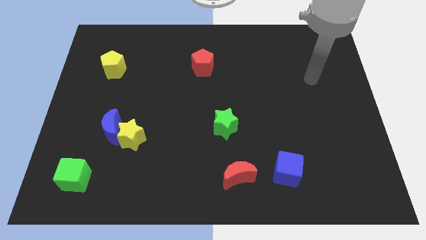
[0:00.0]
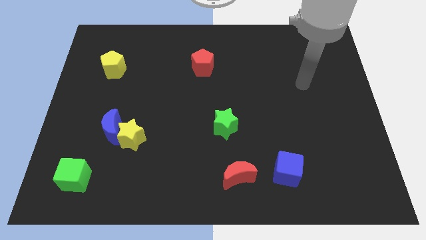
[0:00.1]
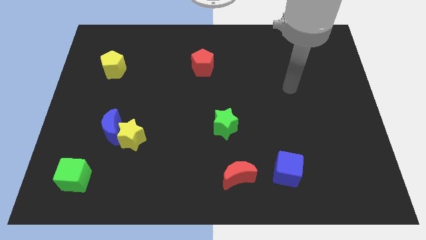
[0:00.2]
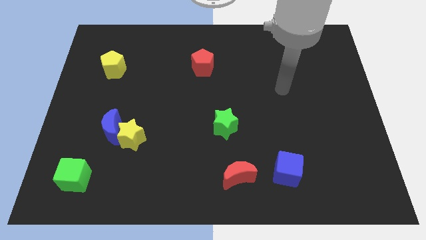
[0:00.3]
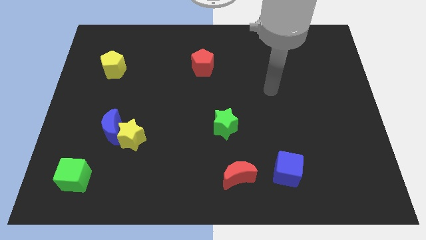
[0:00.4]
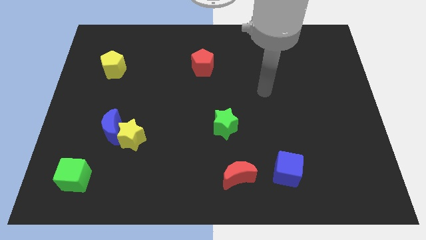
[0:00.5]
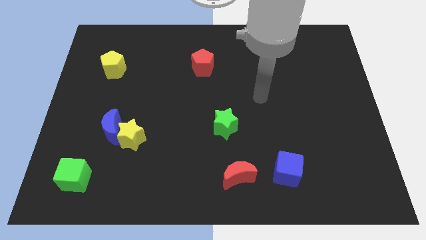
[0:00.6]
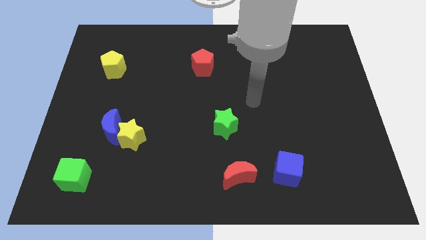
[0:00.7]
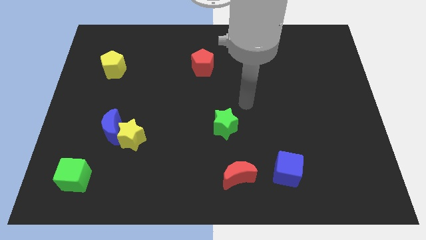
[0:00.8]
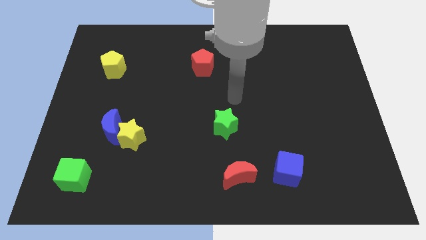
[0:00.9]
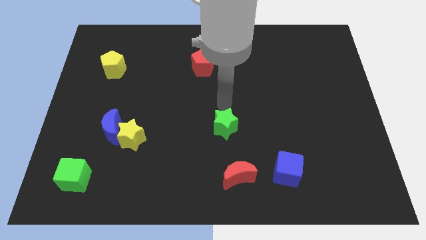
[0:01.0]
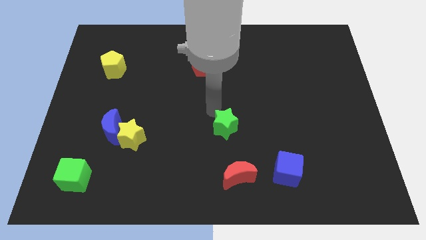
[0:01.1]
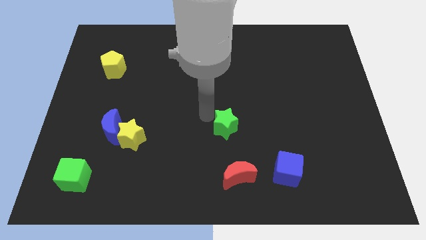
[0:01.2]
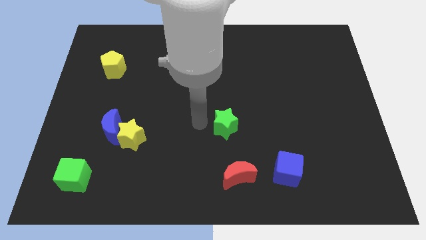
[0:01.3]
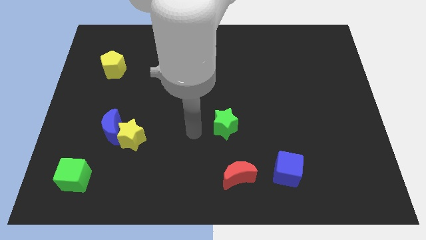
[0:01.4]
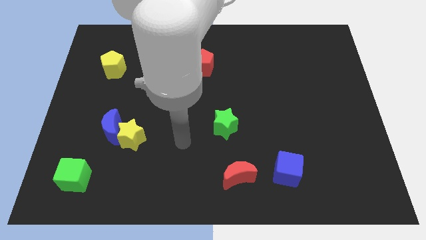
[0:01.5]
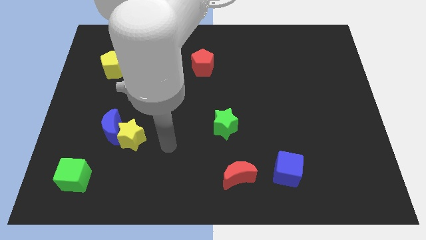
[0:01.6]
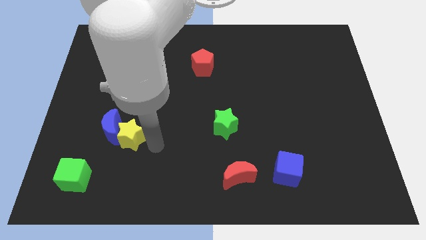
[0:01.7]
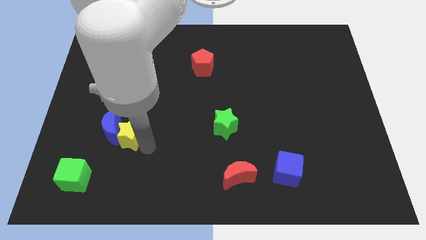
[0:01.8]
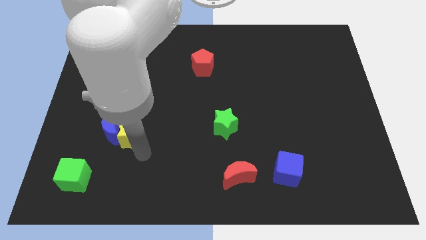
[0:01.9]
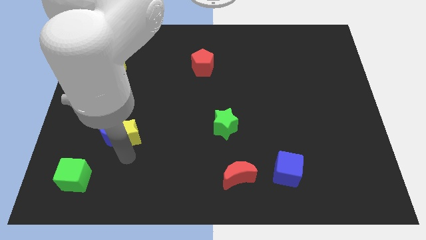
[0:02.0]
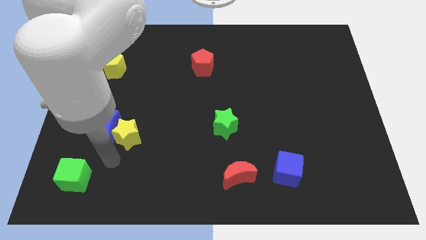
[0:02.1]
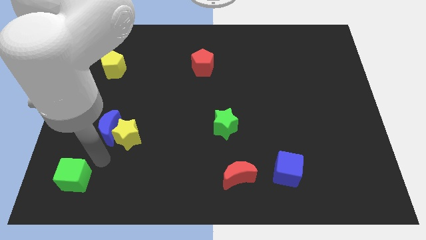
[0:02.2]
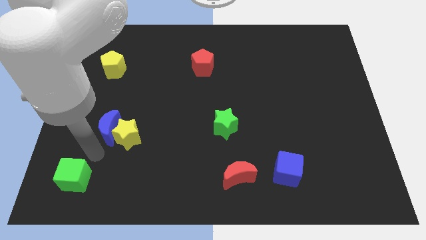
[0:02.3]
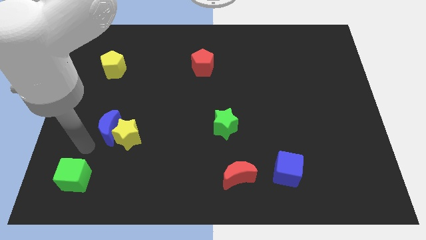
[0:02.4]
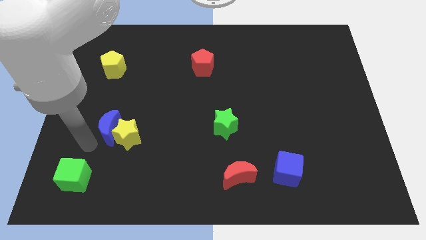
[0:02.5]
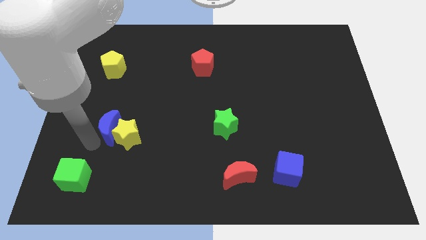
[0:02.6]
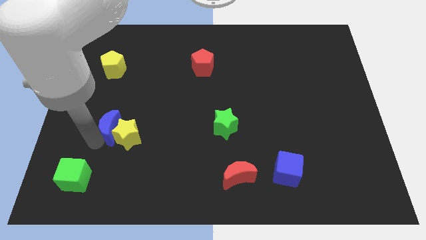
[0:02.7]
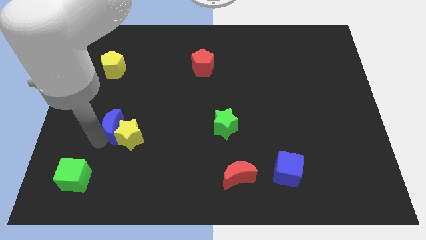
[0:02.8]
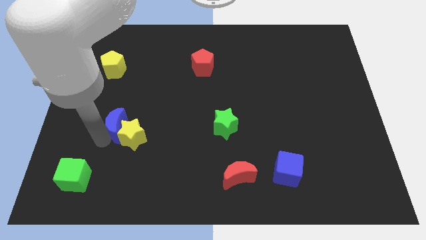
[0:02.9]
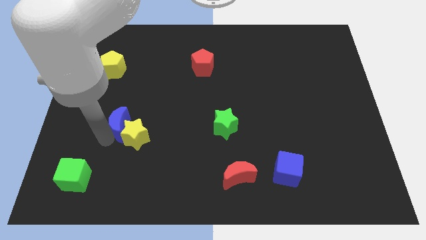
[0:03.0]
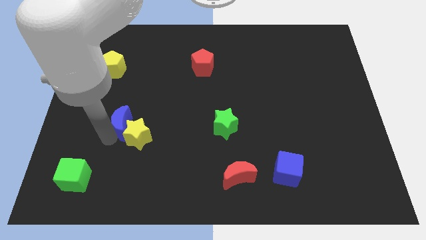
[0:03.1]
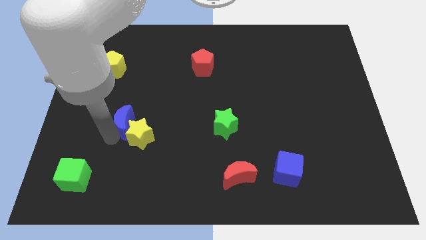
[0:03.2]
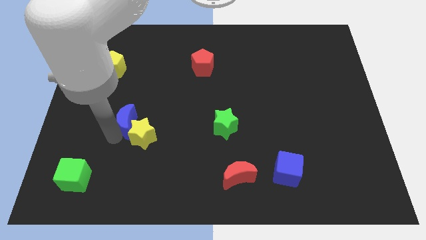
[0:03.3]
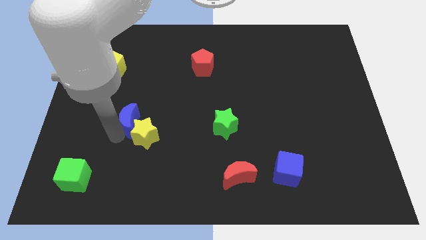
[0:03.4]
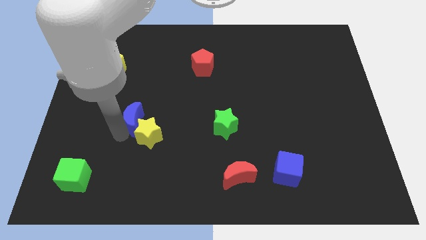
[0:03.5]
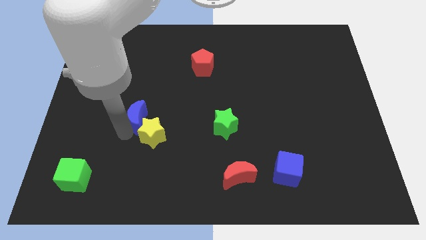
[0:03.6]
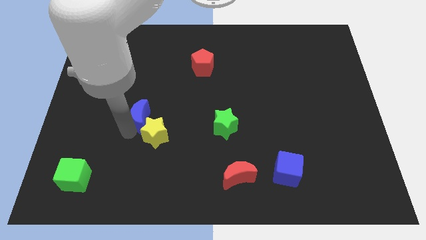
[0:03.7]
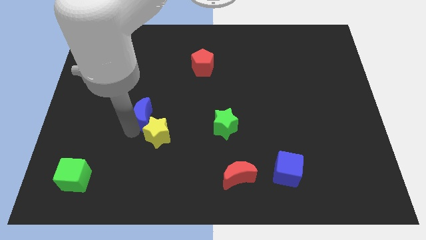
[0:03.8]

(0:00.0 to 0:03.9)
slide the blue moon up and then to the right somewhat

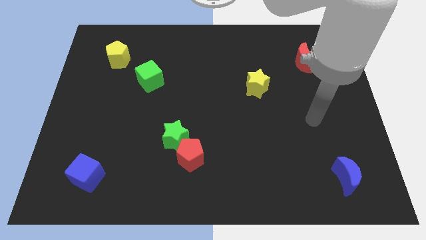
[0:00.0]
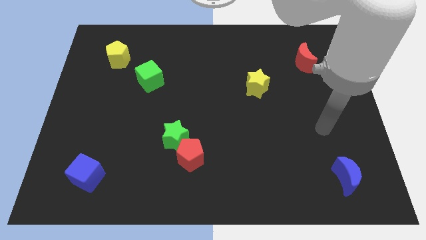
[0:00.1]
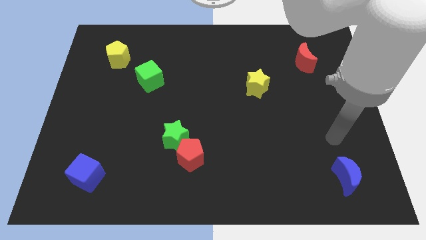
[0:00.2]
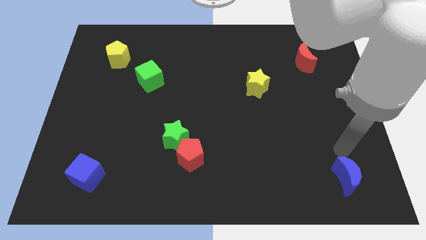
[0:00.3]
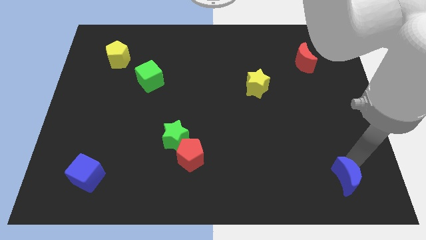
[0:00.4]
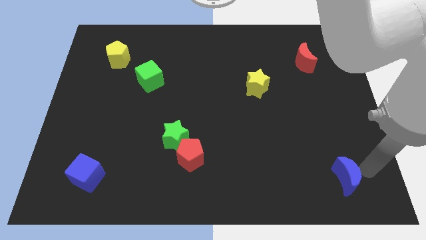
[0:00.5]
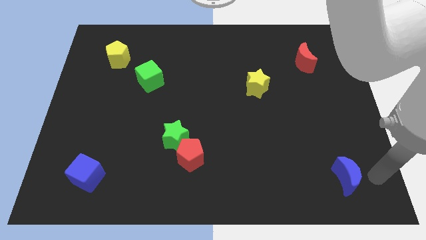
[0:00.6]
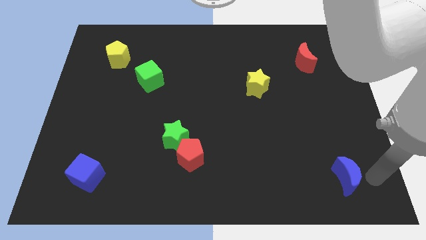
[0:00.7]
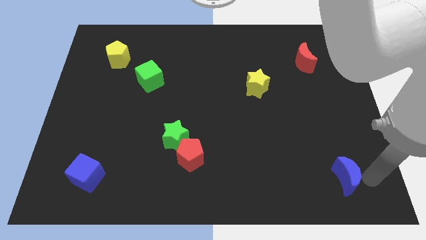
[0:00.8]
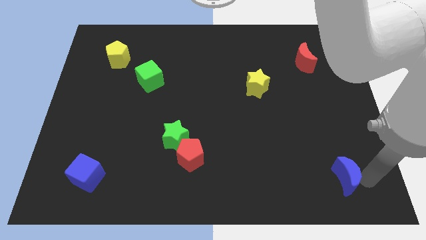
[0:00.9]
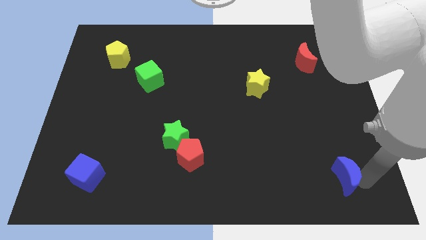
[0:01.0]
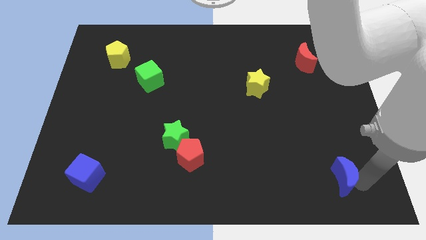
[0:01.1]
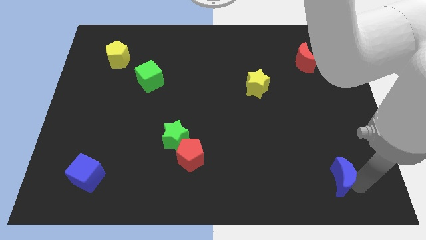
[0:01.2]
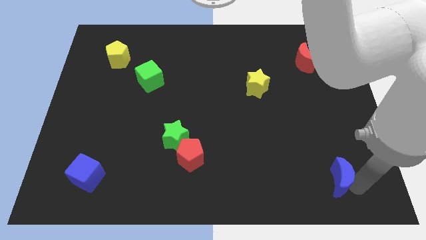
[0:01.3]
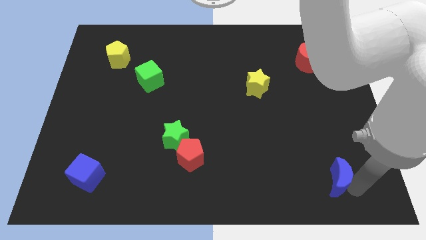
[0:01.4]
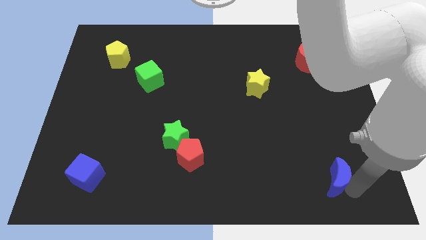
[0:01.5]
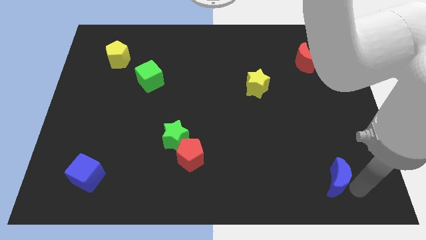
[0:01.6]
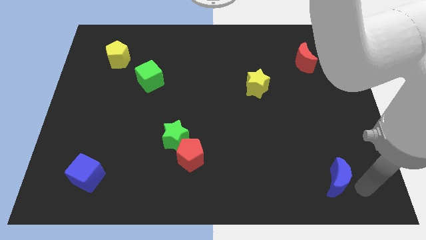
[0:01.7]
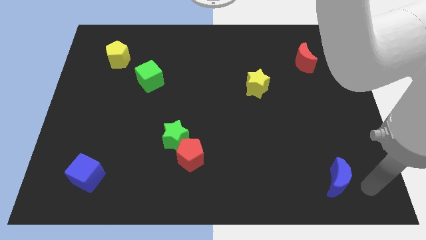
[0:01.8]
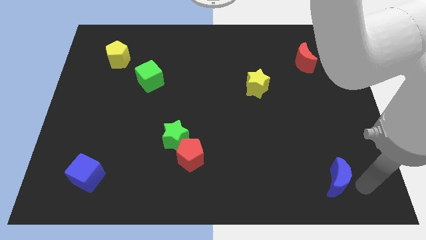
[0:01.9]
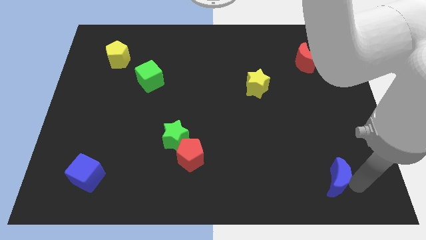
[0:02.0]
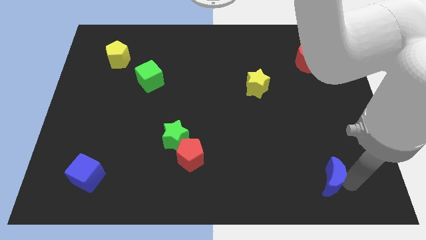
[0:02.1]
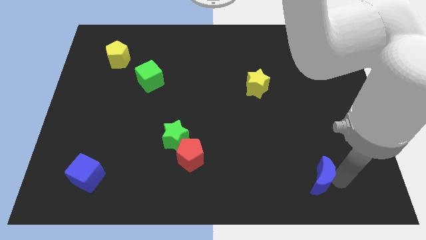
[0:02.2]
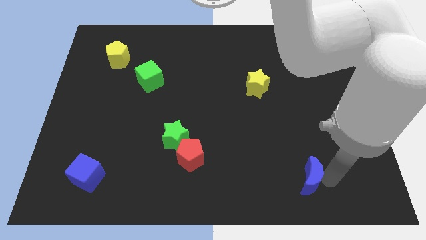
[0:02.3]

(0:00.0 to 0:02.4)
push the blue moon somewhat to the left

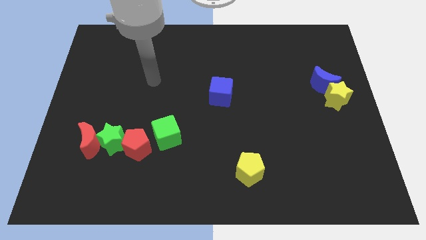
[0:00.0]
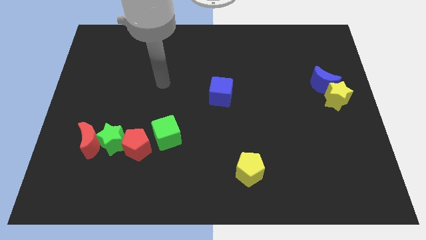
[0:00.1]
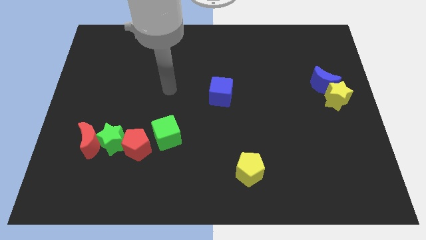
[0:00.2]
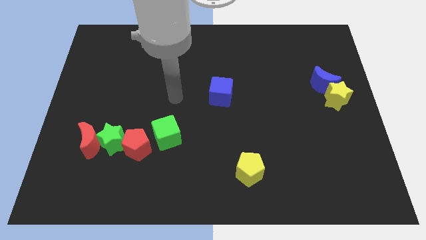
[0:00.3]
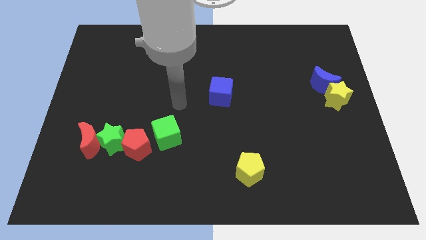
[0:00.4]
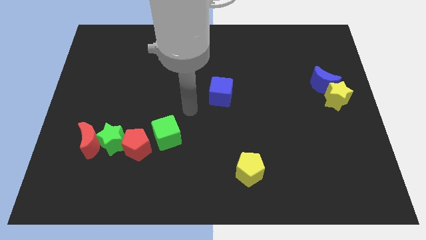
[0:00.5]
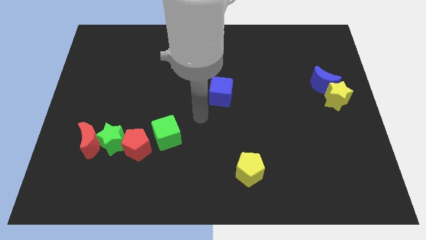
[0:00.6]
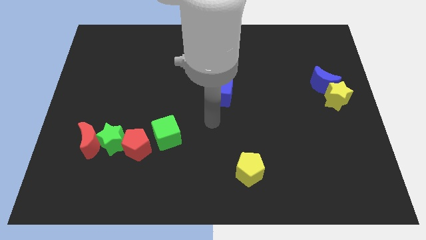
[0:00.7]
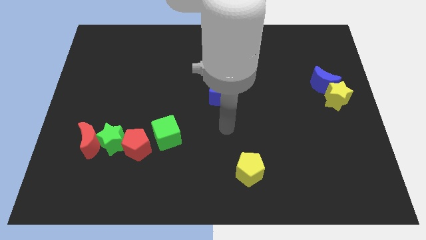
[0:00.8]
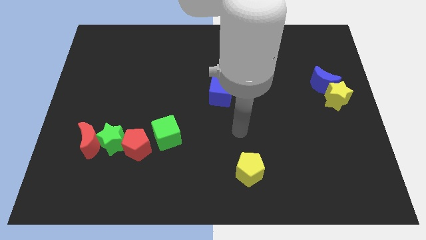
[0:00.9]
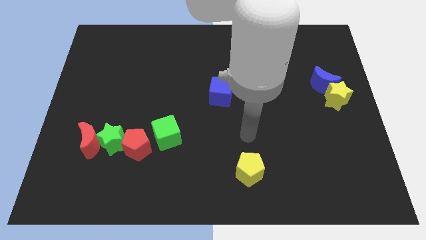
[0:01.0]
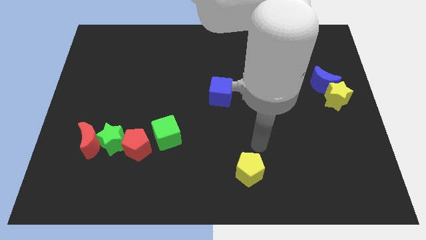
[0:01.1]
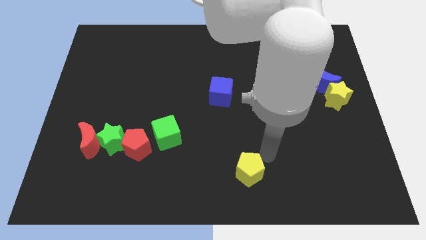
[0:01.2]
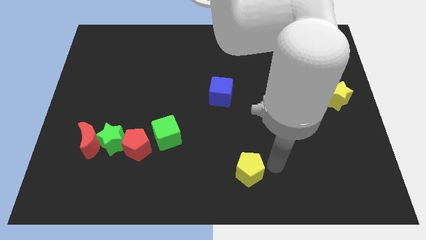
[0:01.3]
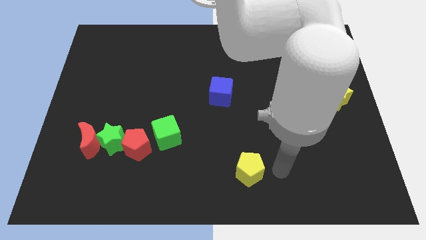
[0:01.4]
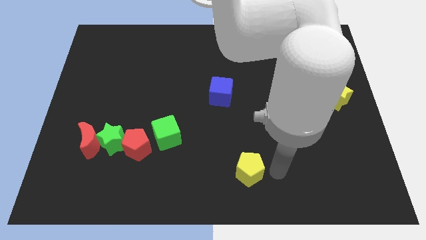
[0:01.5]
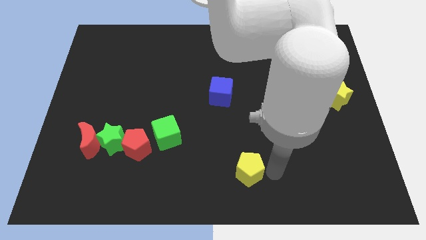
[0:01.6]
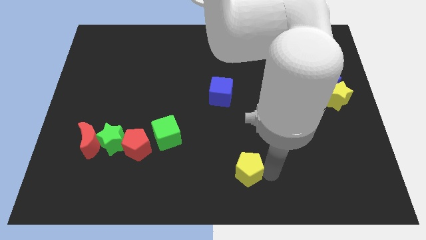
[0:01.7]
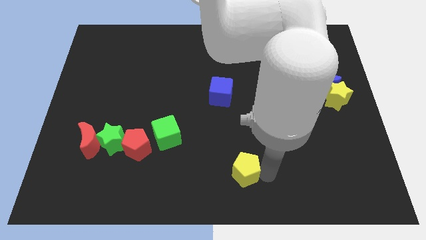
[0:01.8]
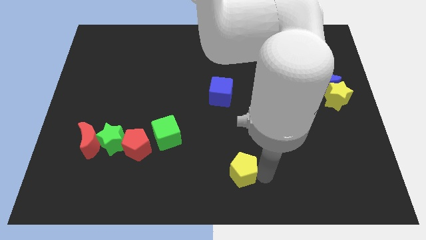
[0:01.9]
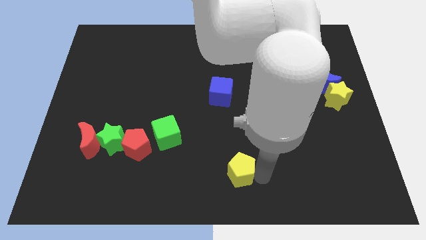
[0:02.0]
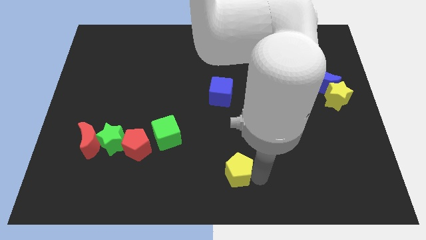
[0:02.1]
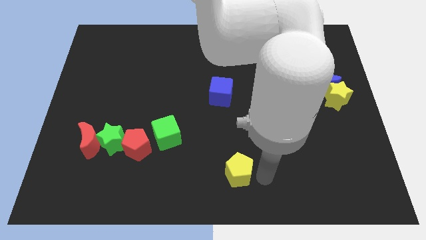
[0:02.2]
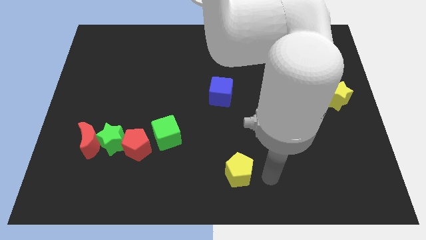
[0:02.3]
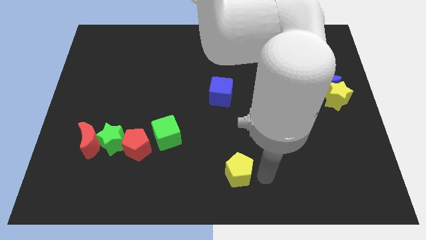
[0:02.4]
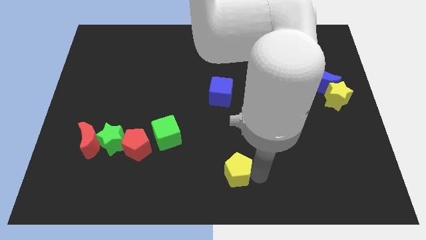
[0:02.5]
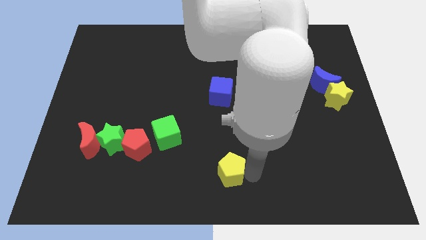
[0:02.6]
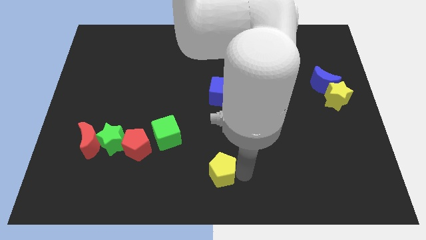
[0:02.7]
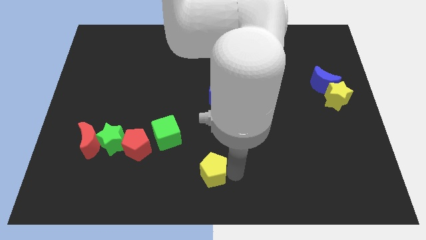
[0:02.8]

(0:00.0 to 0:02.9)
slide the yellow pentagon left a little
